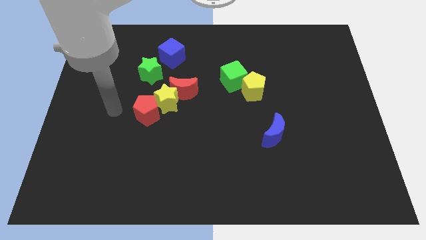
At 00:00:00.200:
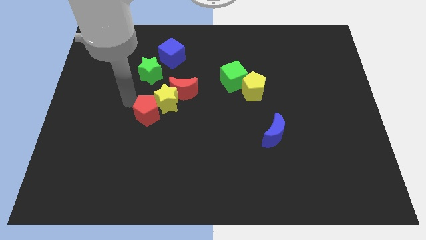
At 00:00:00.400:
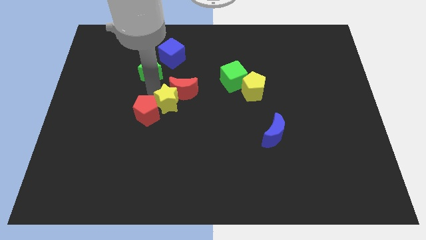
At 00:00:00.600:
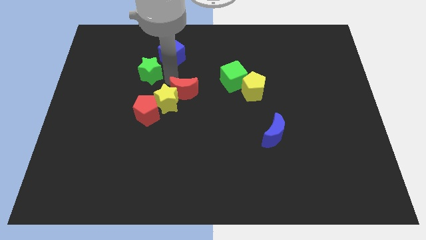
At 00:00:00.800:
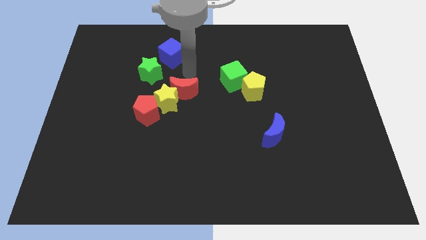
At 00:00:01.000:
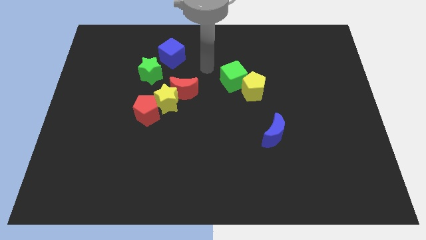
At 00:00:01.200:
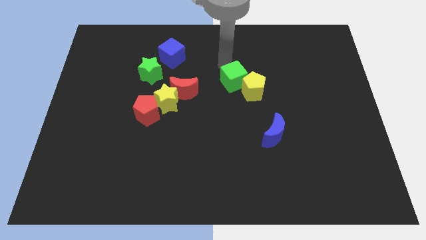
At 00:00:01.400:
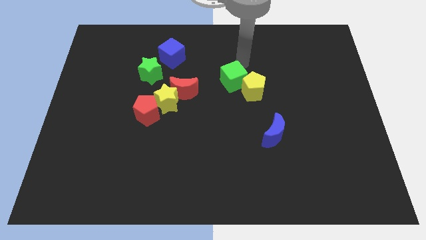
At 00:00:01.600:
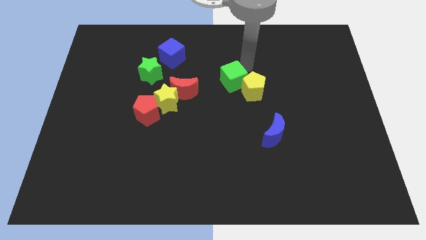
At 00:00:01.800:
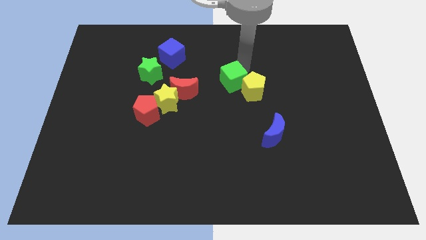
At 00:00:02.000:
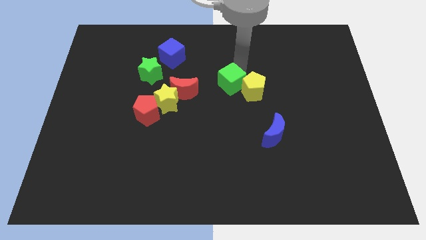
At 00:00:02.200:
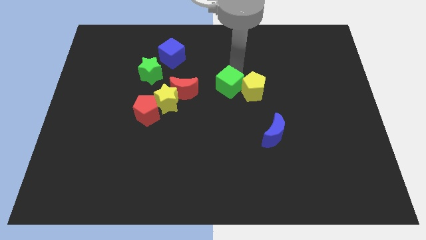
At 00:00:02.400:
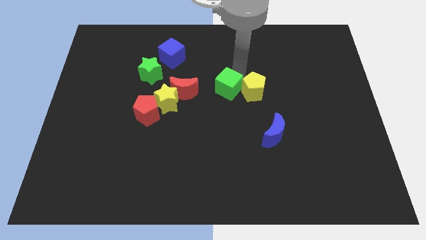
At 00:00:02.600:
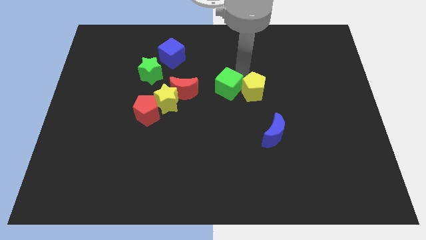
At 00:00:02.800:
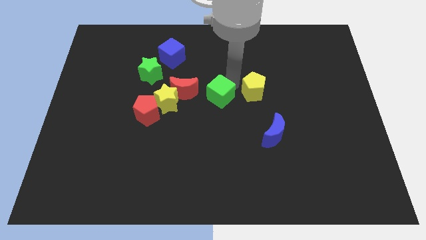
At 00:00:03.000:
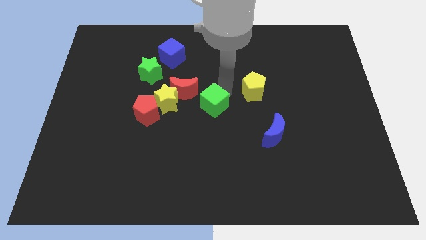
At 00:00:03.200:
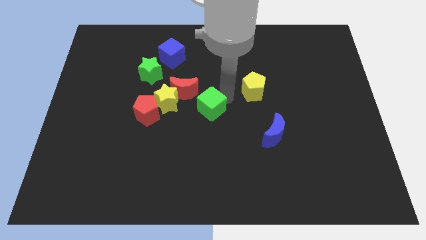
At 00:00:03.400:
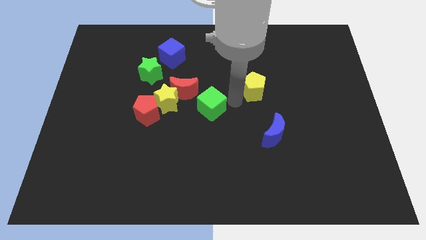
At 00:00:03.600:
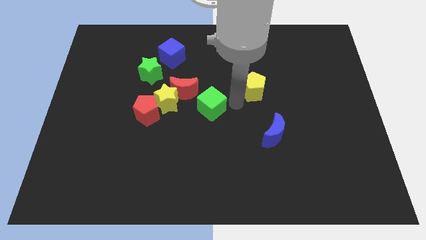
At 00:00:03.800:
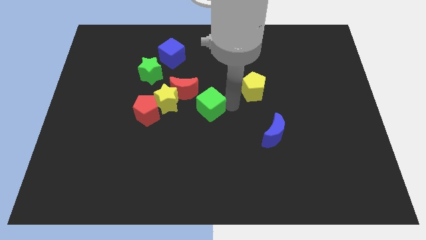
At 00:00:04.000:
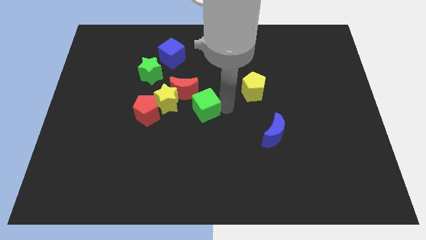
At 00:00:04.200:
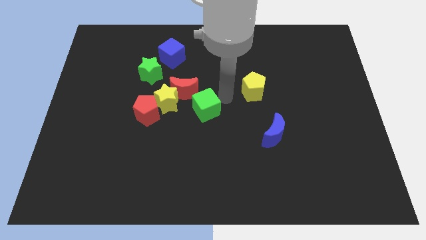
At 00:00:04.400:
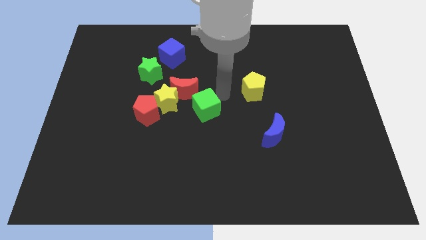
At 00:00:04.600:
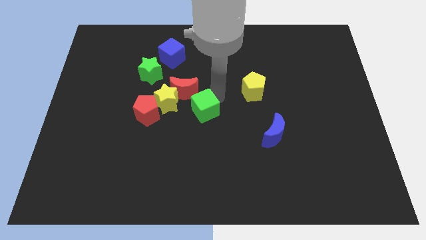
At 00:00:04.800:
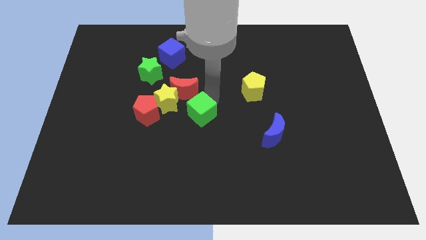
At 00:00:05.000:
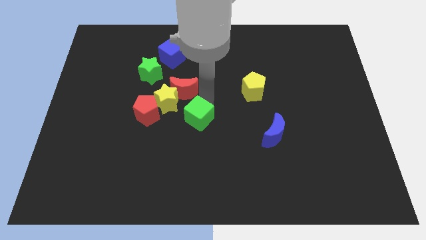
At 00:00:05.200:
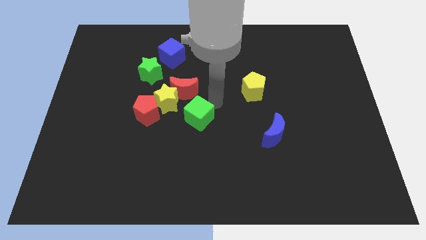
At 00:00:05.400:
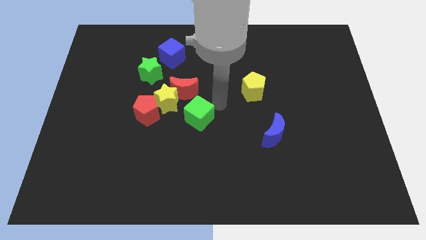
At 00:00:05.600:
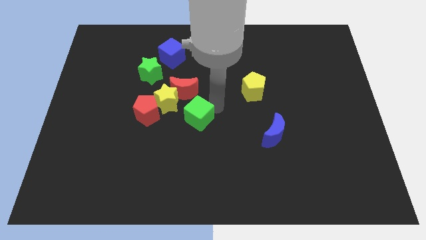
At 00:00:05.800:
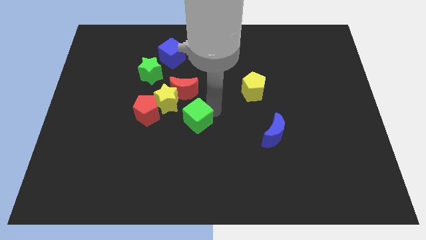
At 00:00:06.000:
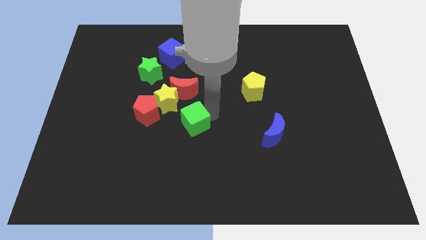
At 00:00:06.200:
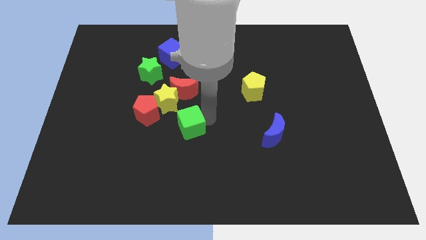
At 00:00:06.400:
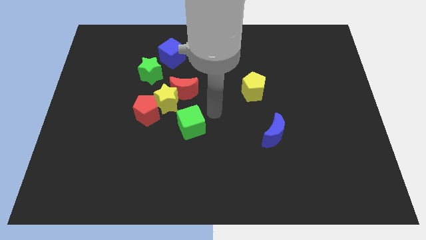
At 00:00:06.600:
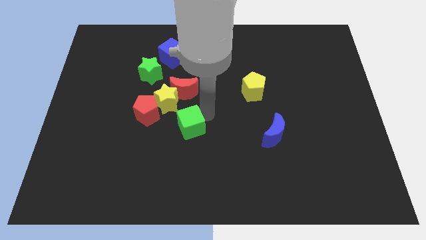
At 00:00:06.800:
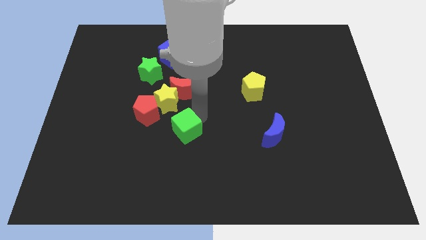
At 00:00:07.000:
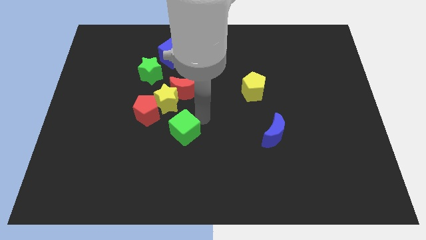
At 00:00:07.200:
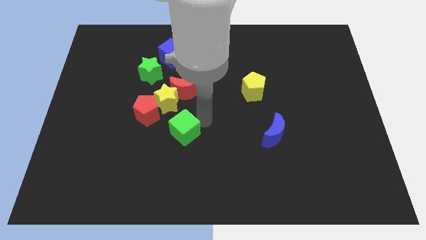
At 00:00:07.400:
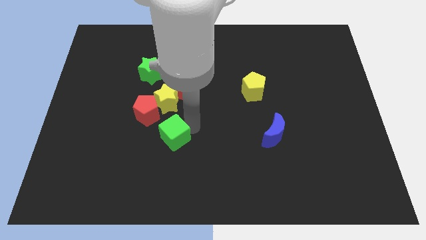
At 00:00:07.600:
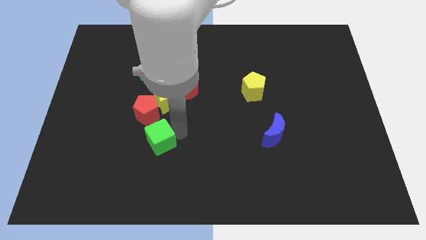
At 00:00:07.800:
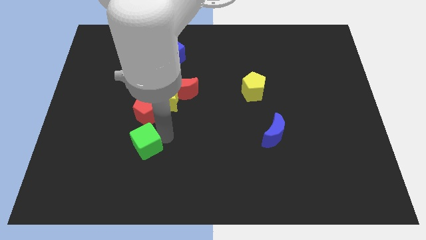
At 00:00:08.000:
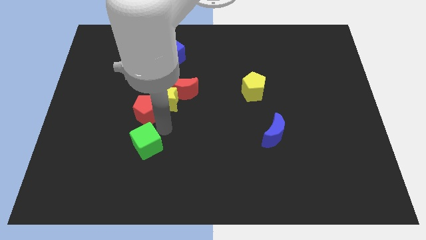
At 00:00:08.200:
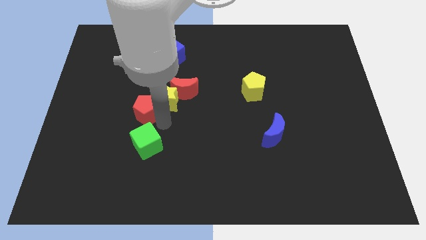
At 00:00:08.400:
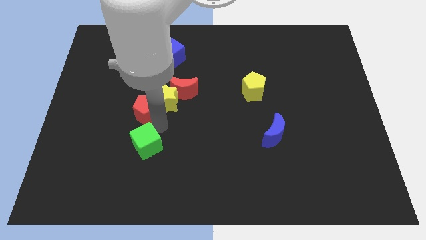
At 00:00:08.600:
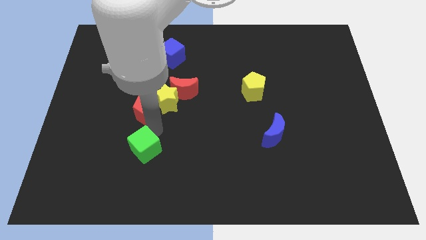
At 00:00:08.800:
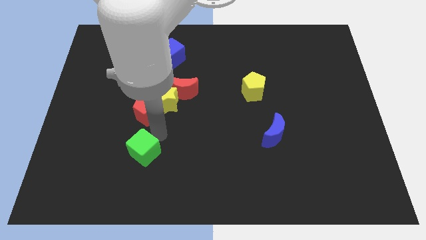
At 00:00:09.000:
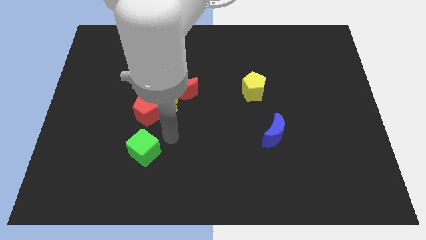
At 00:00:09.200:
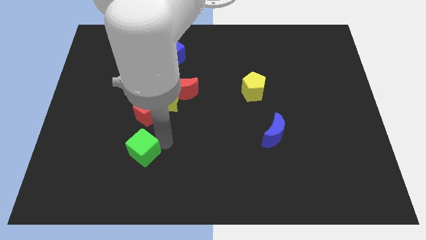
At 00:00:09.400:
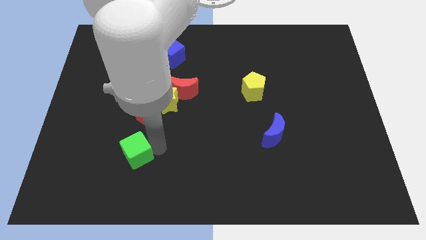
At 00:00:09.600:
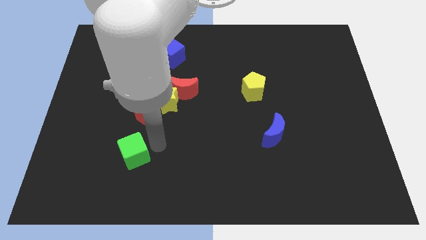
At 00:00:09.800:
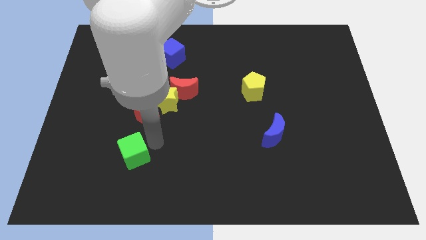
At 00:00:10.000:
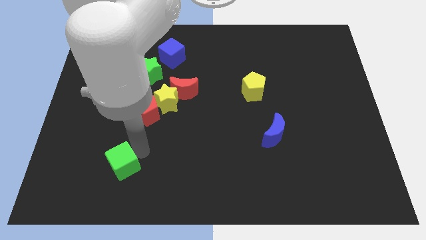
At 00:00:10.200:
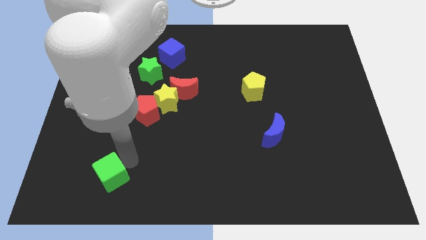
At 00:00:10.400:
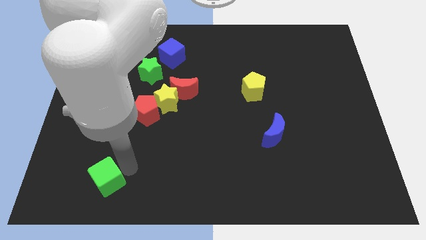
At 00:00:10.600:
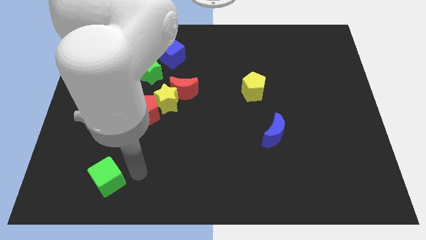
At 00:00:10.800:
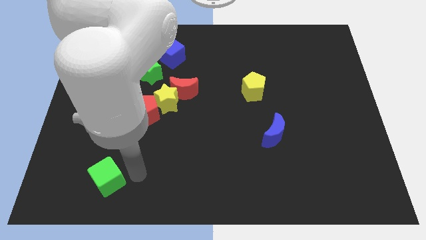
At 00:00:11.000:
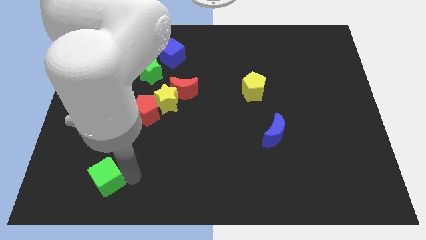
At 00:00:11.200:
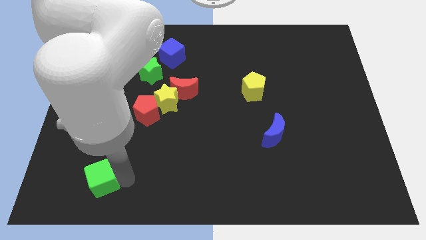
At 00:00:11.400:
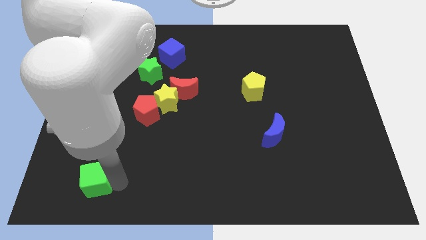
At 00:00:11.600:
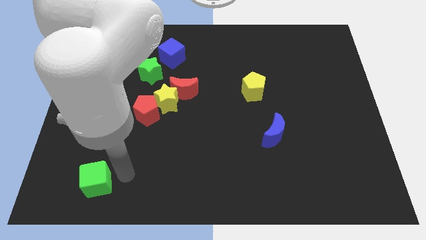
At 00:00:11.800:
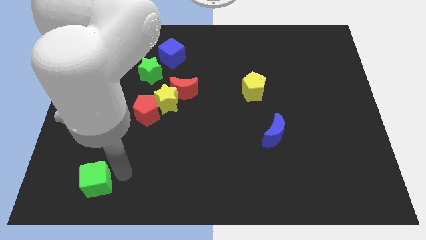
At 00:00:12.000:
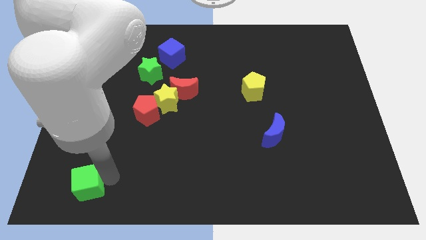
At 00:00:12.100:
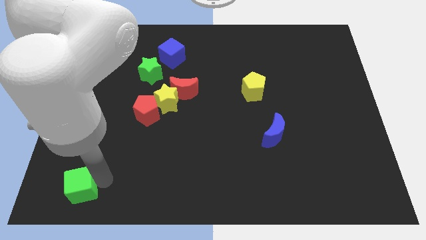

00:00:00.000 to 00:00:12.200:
push the green cube to the lower left corner
